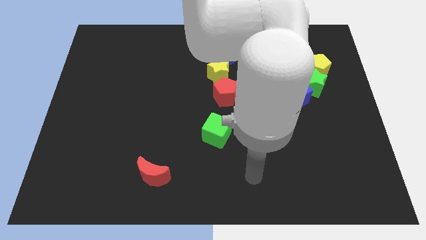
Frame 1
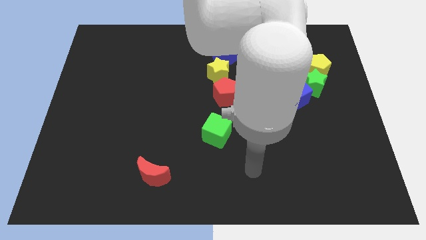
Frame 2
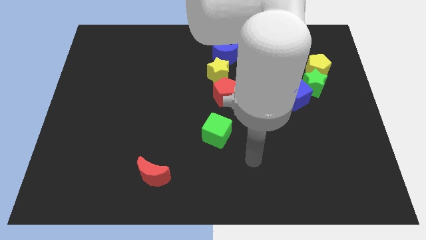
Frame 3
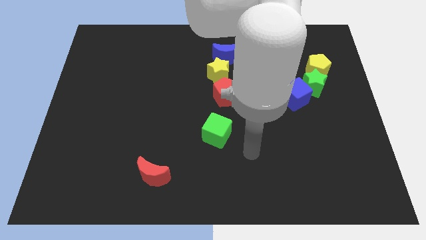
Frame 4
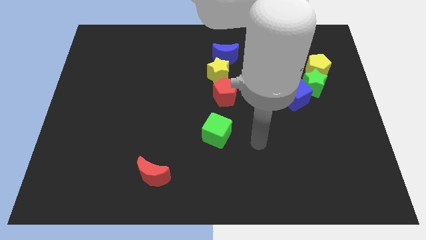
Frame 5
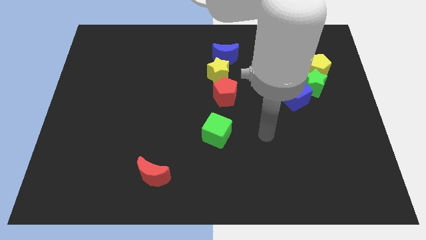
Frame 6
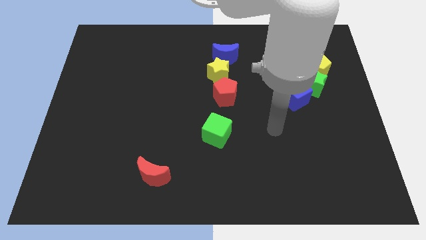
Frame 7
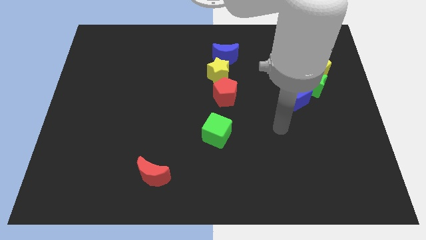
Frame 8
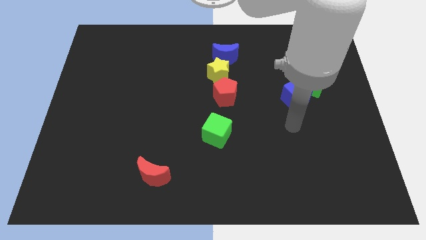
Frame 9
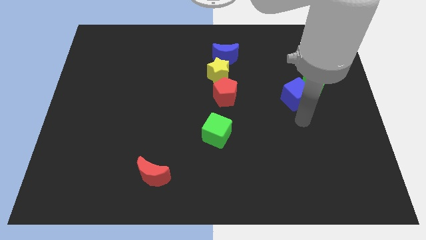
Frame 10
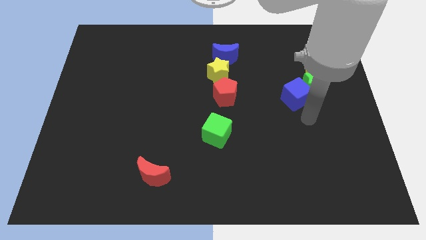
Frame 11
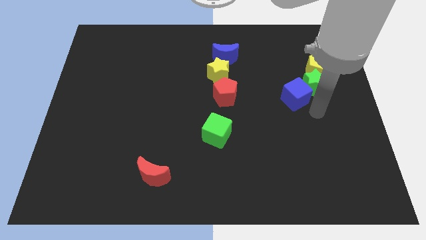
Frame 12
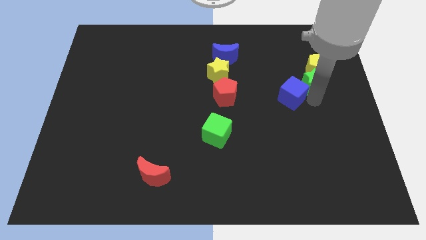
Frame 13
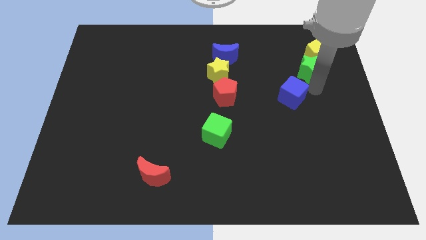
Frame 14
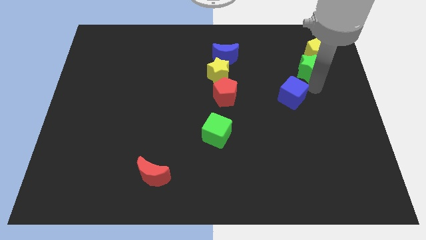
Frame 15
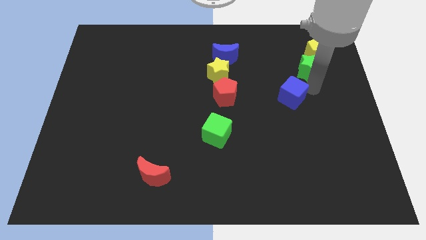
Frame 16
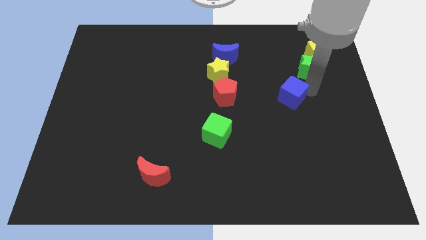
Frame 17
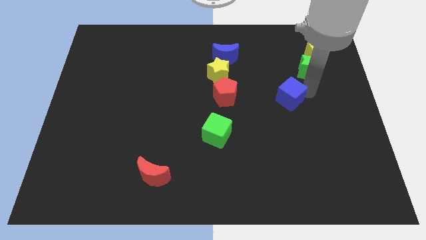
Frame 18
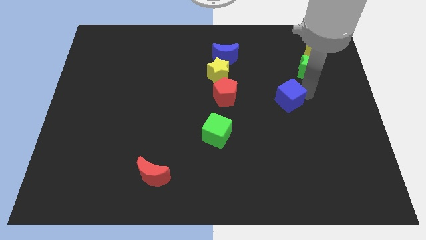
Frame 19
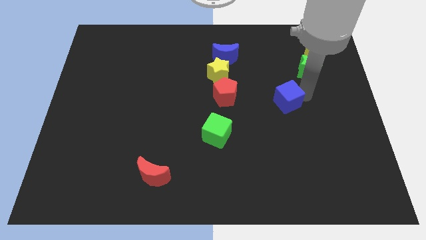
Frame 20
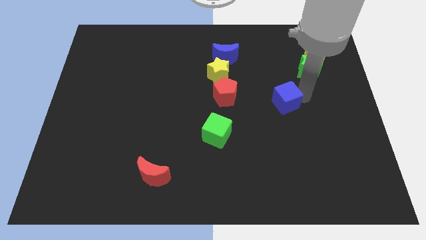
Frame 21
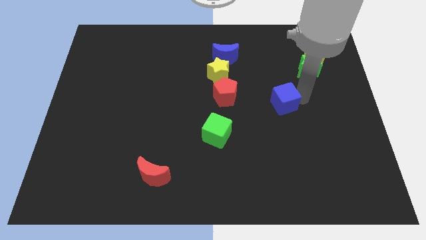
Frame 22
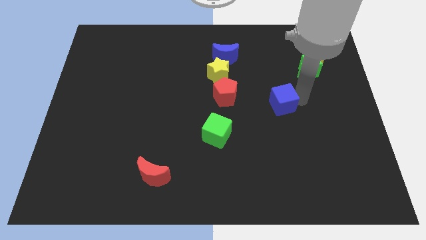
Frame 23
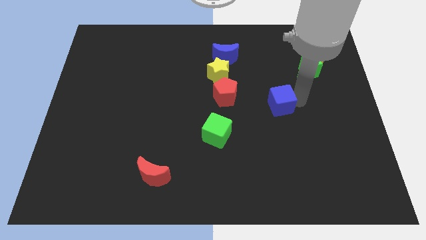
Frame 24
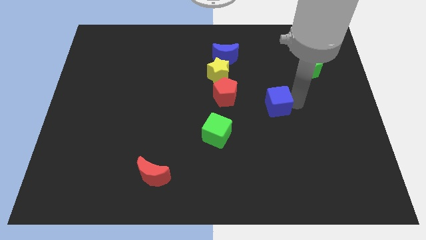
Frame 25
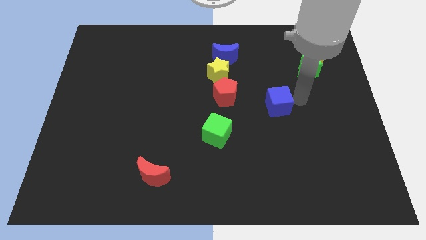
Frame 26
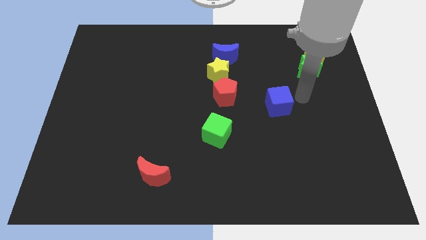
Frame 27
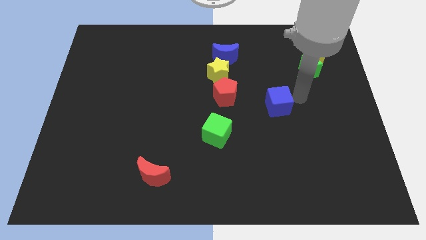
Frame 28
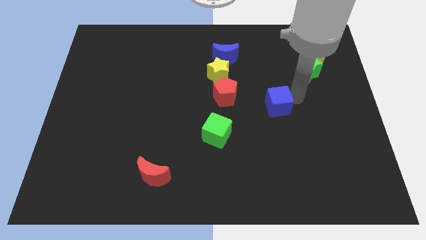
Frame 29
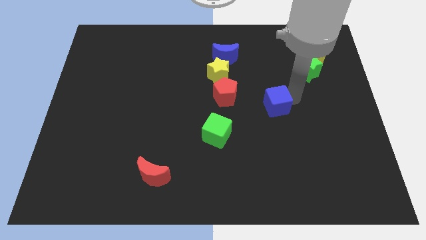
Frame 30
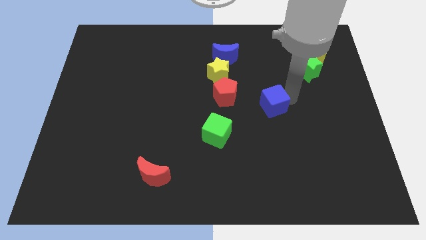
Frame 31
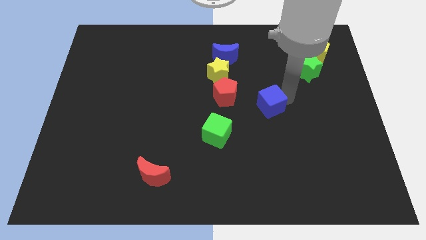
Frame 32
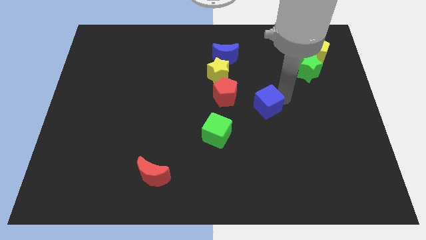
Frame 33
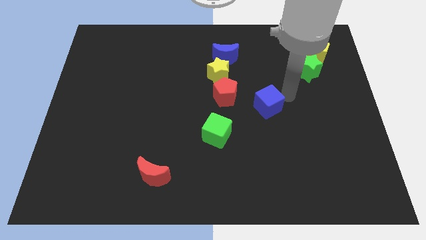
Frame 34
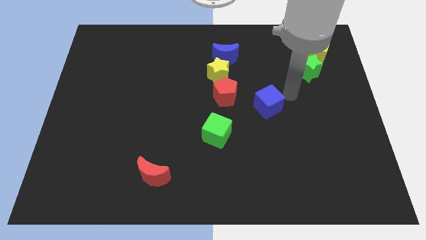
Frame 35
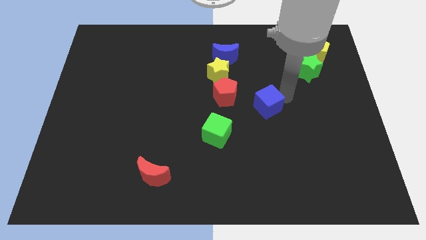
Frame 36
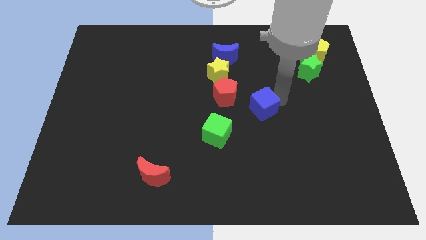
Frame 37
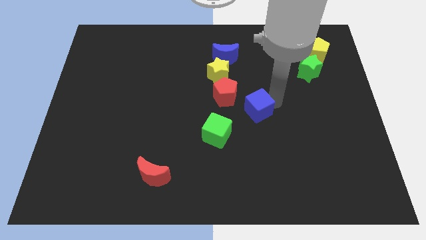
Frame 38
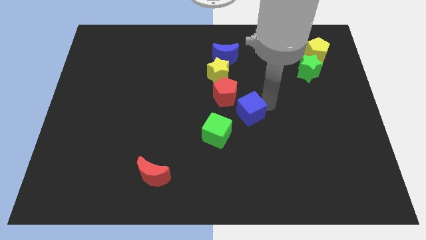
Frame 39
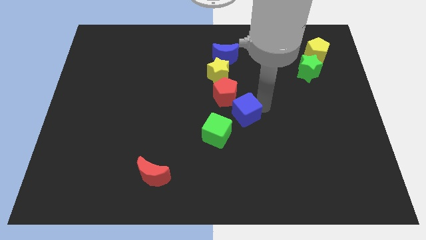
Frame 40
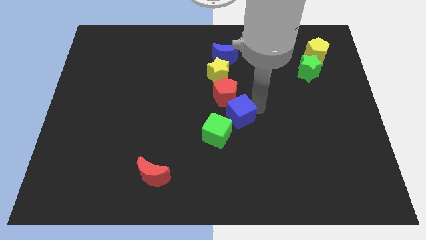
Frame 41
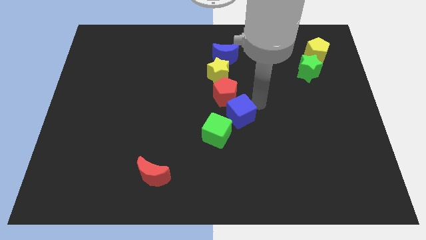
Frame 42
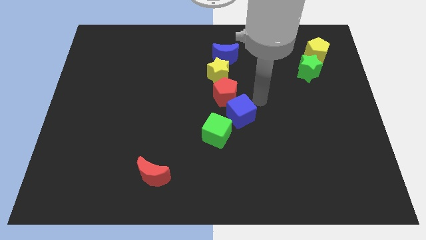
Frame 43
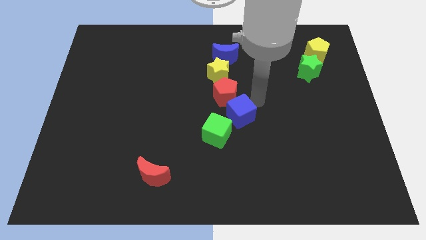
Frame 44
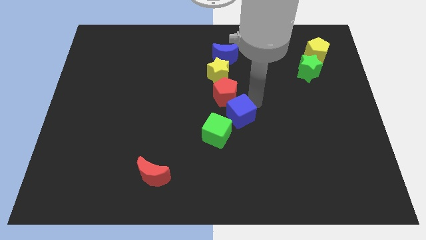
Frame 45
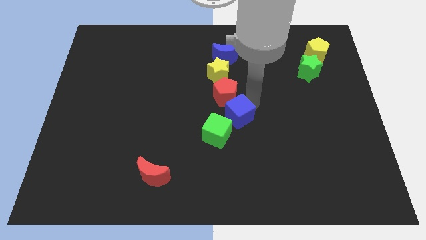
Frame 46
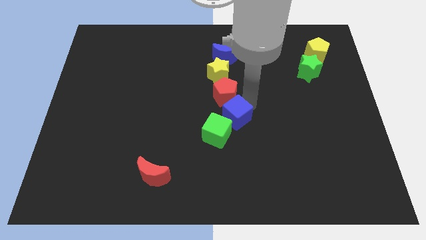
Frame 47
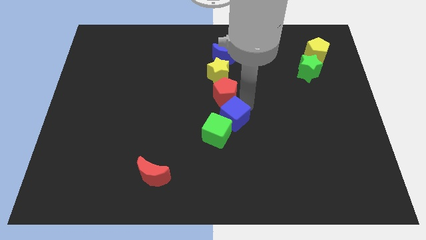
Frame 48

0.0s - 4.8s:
slide the blue cube to the green cube

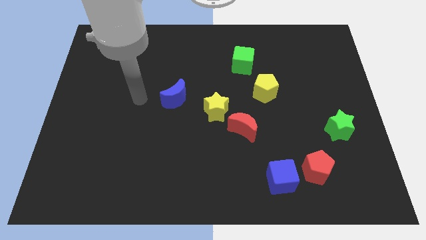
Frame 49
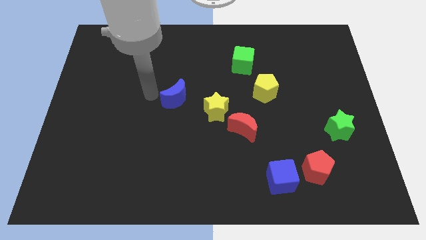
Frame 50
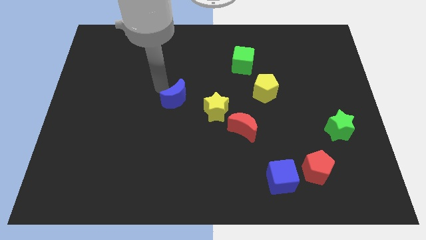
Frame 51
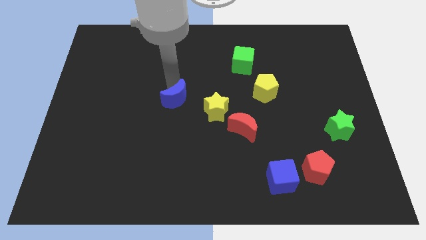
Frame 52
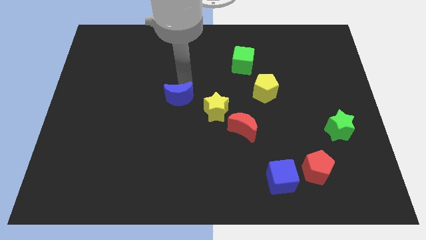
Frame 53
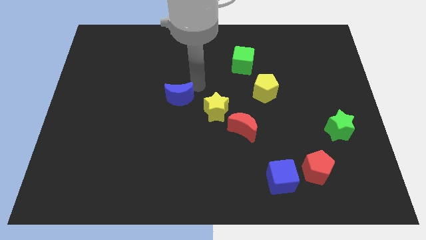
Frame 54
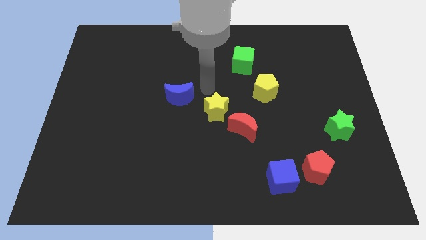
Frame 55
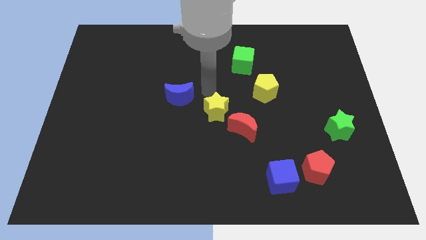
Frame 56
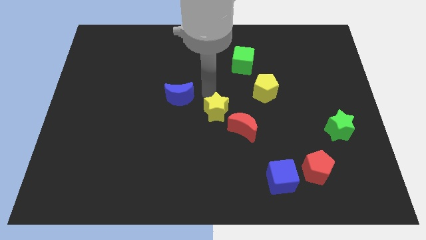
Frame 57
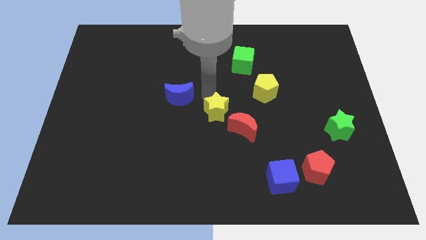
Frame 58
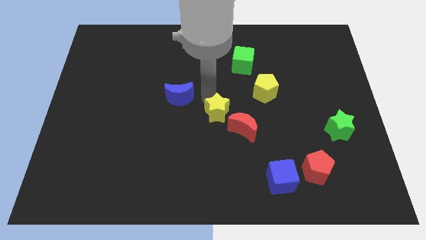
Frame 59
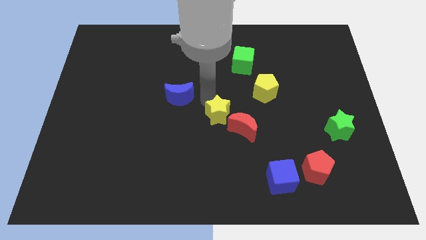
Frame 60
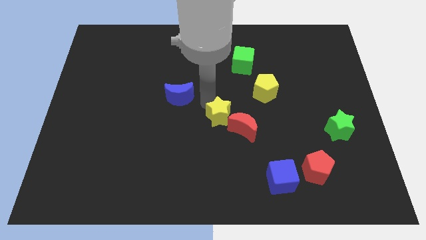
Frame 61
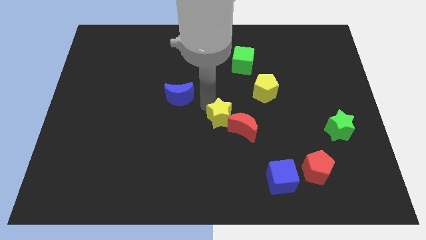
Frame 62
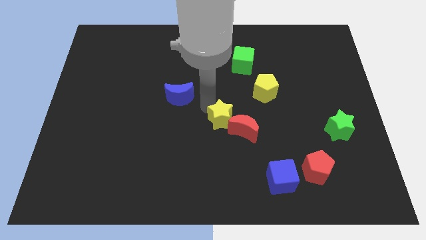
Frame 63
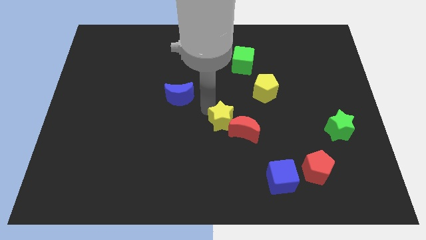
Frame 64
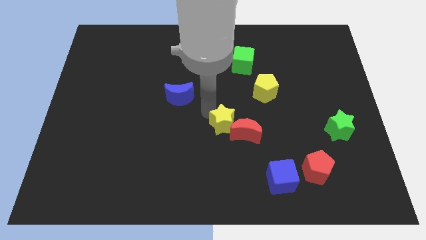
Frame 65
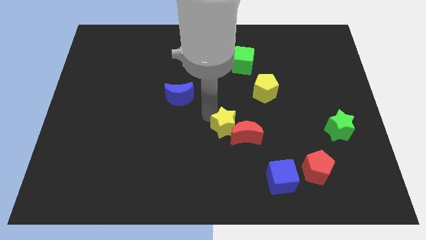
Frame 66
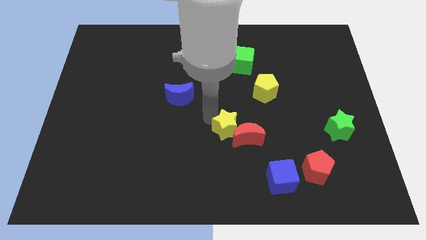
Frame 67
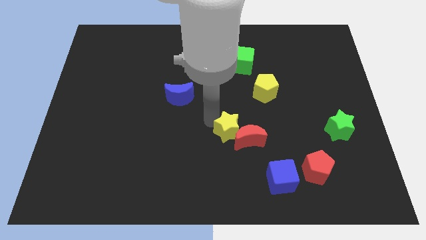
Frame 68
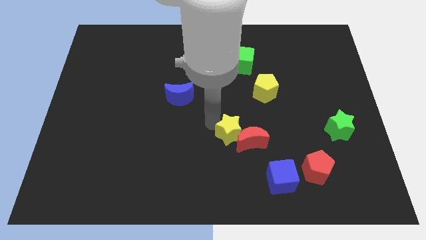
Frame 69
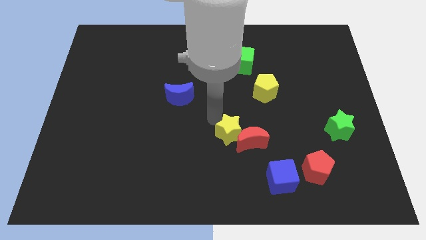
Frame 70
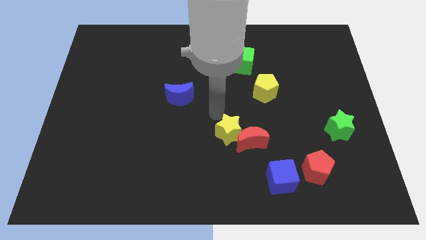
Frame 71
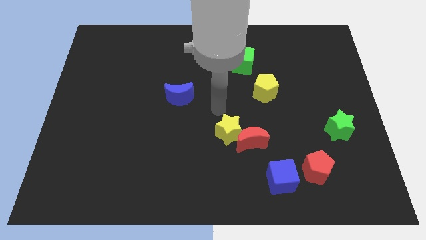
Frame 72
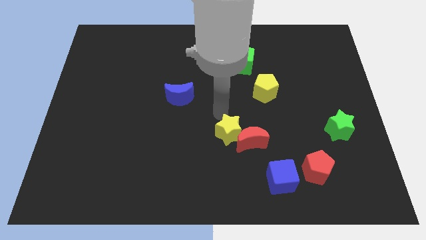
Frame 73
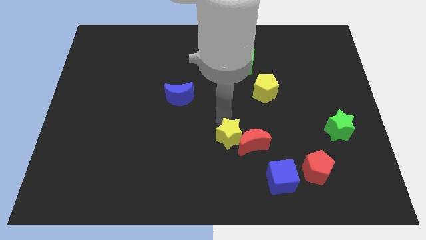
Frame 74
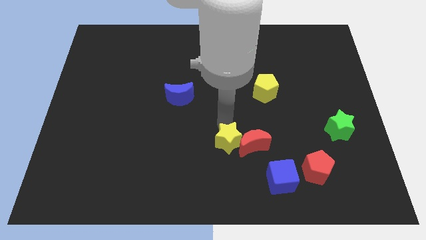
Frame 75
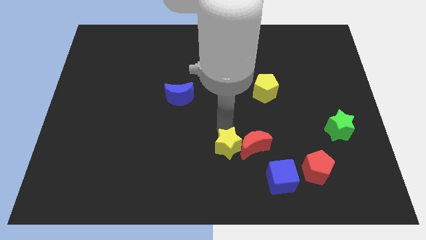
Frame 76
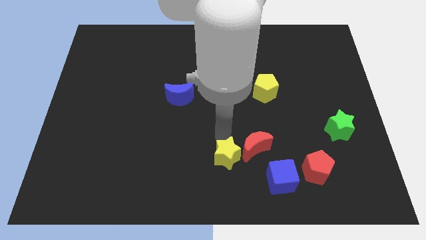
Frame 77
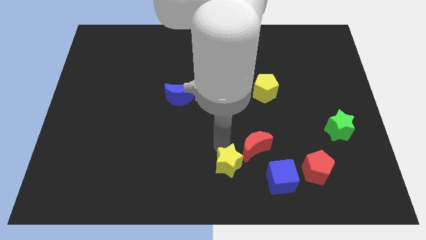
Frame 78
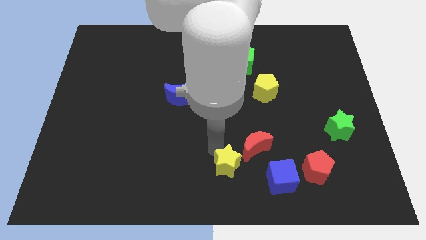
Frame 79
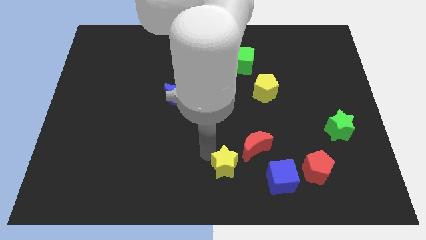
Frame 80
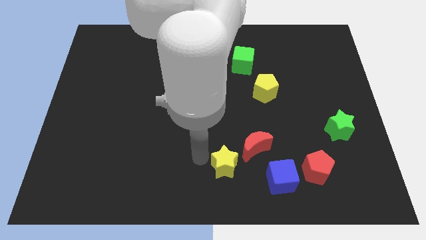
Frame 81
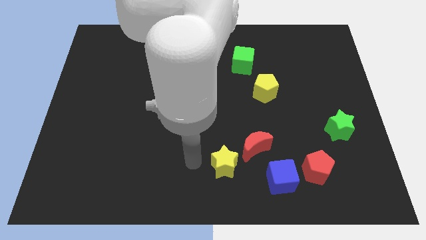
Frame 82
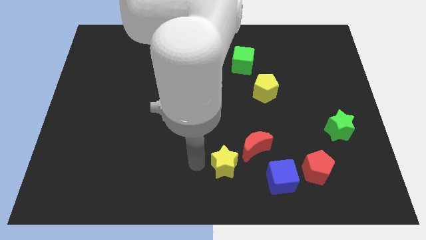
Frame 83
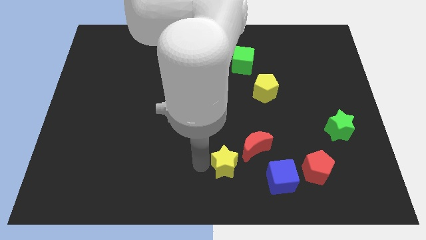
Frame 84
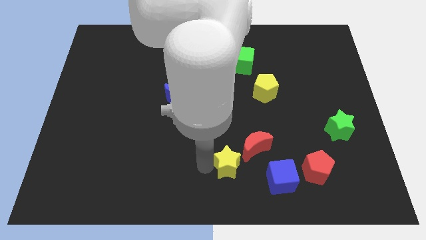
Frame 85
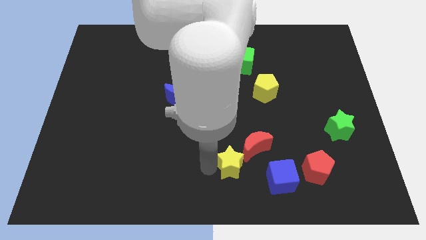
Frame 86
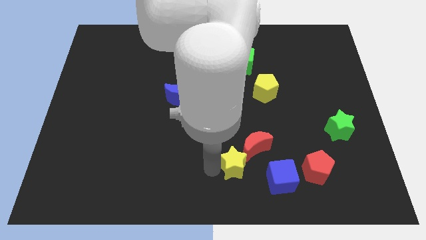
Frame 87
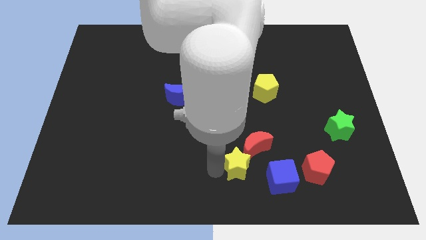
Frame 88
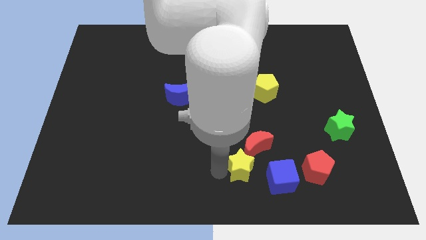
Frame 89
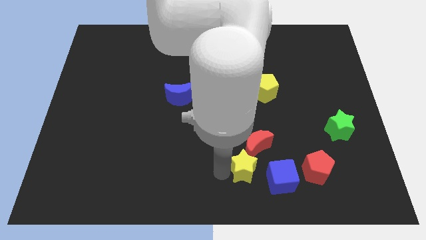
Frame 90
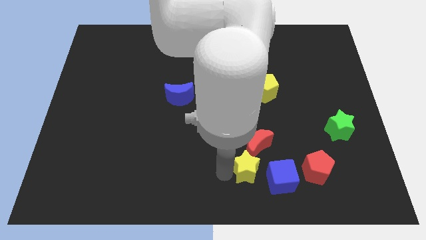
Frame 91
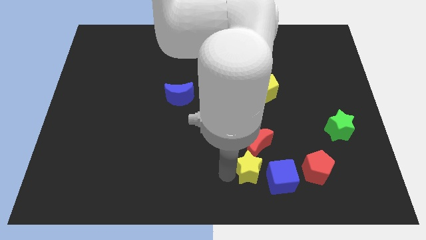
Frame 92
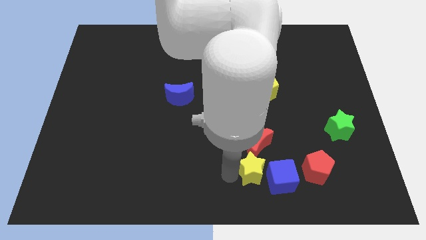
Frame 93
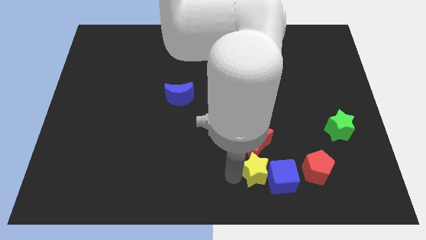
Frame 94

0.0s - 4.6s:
put the yellow star next to the blue cube
